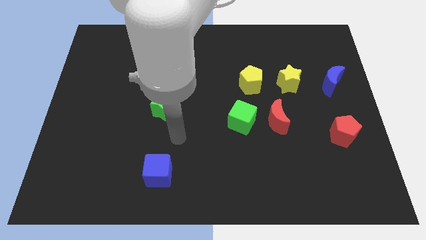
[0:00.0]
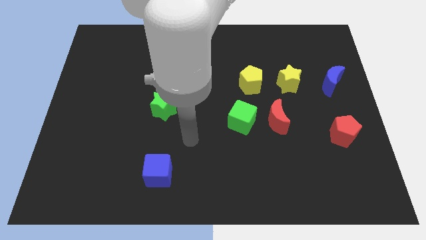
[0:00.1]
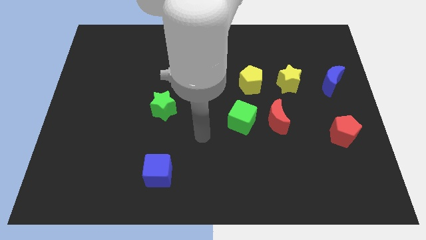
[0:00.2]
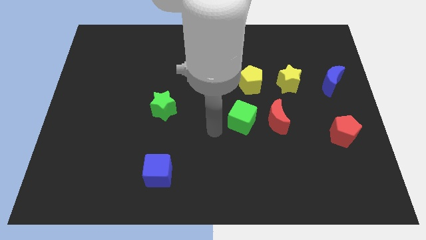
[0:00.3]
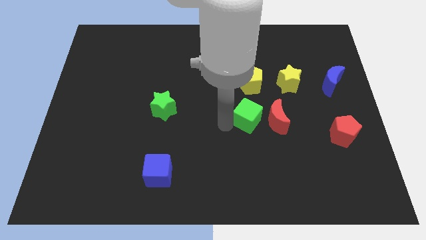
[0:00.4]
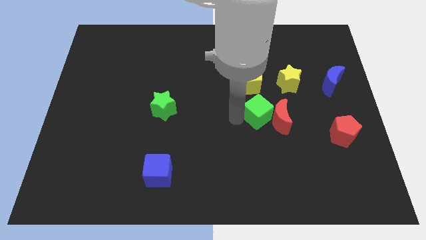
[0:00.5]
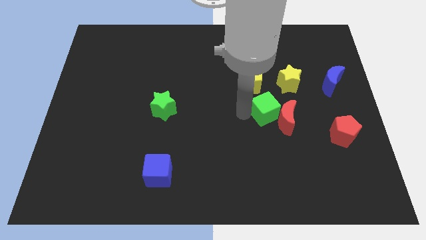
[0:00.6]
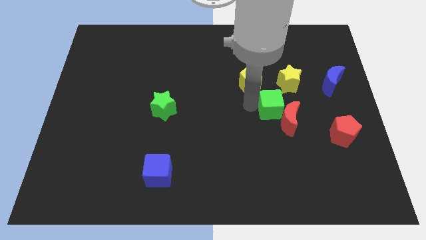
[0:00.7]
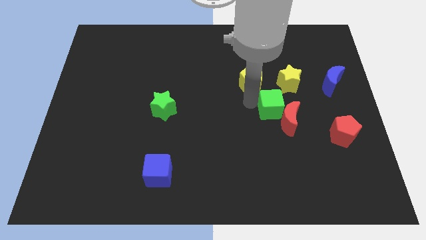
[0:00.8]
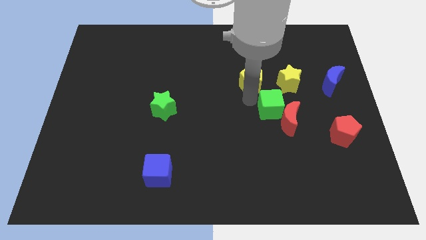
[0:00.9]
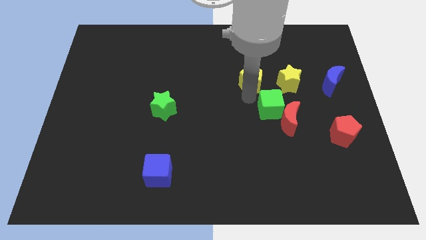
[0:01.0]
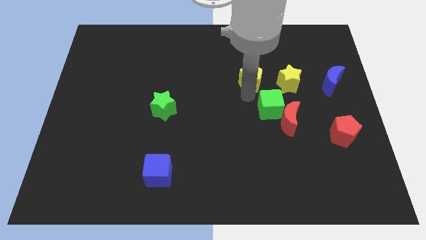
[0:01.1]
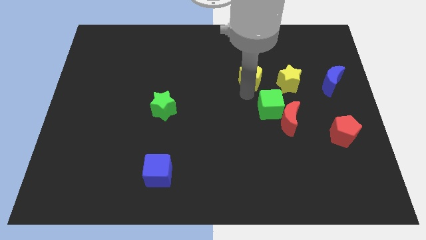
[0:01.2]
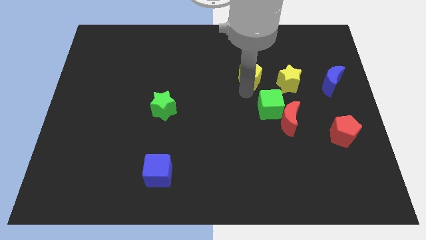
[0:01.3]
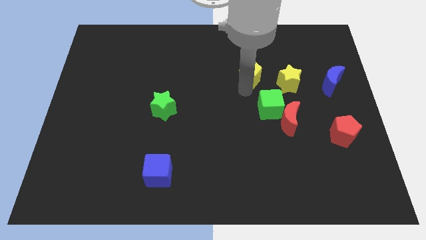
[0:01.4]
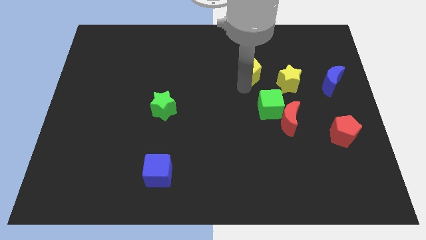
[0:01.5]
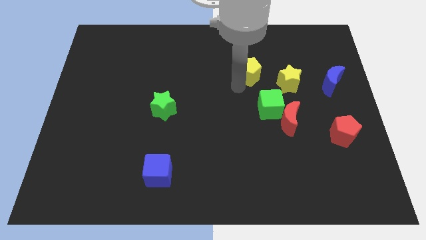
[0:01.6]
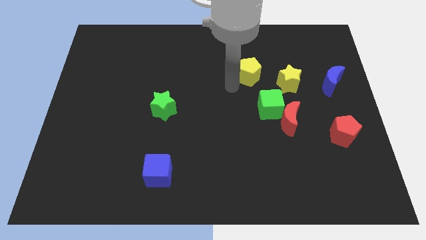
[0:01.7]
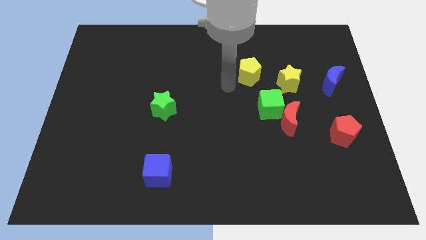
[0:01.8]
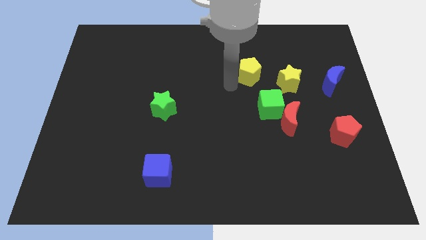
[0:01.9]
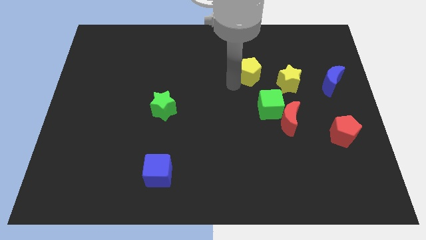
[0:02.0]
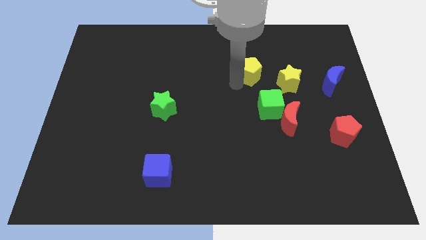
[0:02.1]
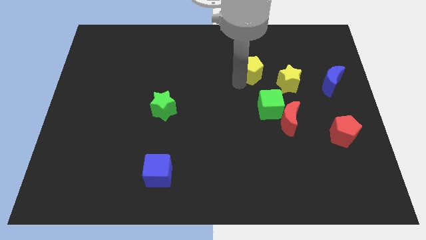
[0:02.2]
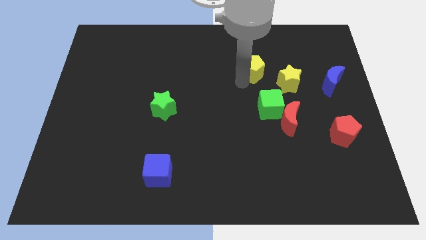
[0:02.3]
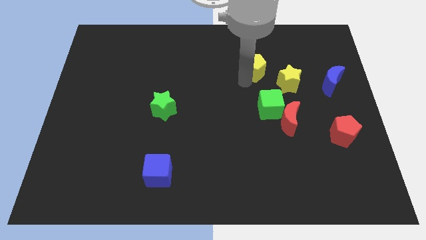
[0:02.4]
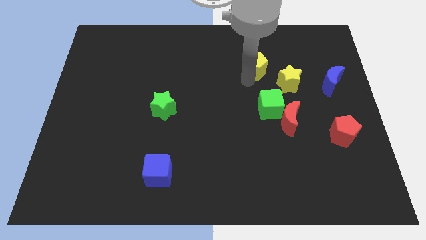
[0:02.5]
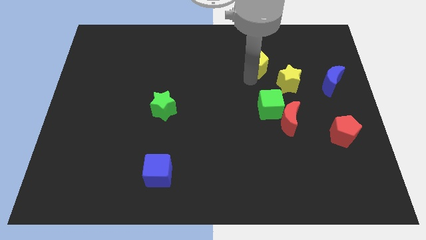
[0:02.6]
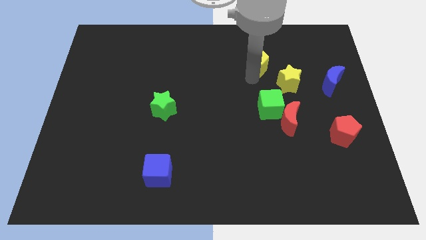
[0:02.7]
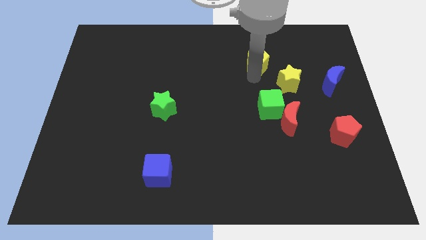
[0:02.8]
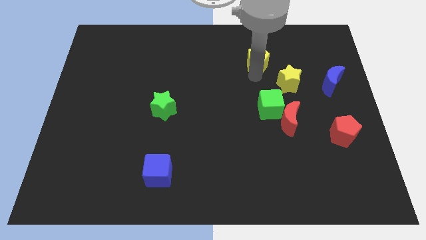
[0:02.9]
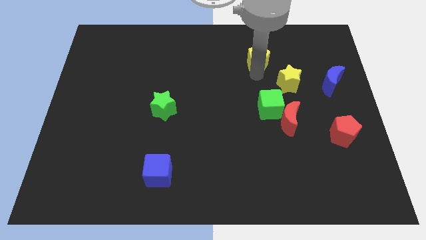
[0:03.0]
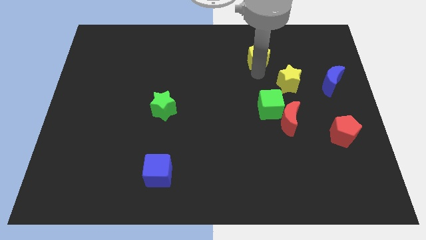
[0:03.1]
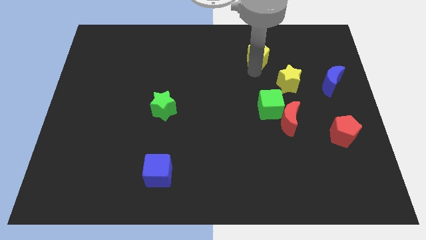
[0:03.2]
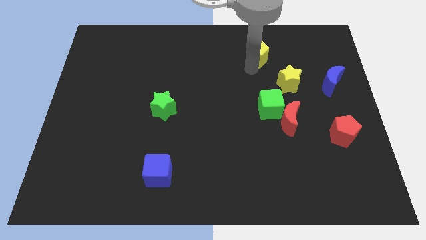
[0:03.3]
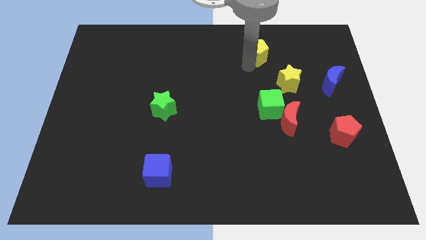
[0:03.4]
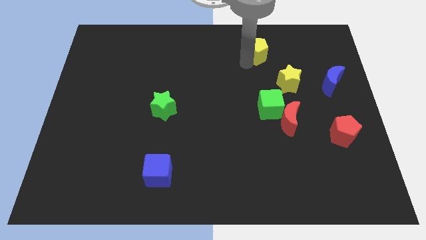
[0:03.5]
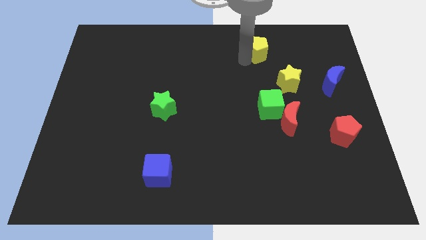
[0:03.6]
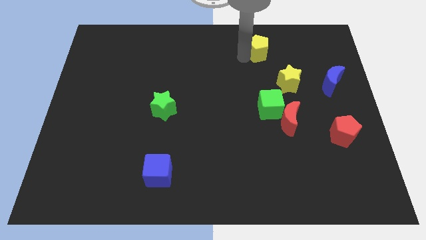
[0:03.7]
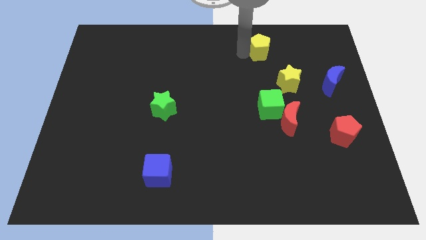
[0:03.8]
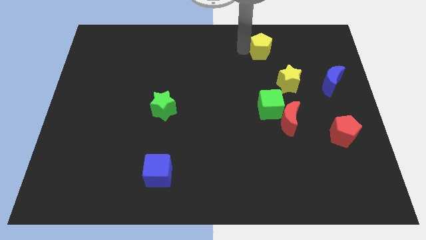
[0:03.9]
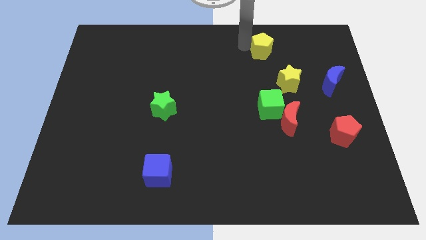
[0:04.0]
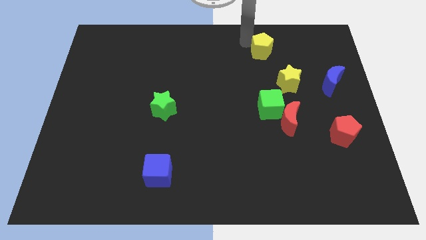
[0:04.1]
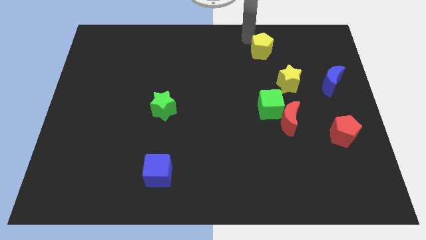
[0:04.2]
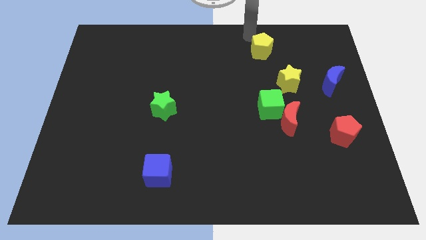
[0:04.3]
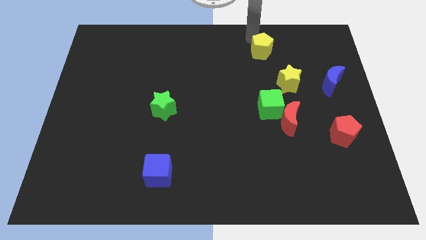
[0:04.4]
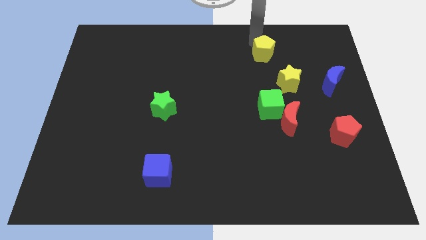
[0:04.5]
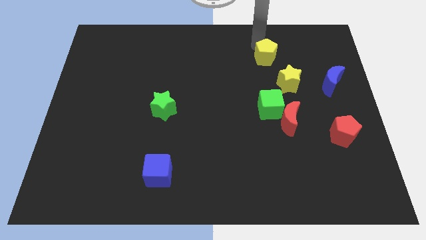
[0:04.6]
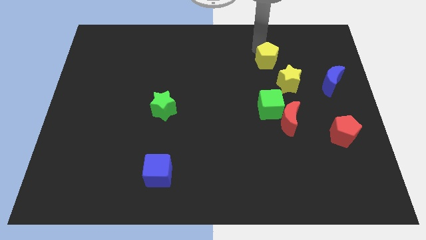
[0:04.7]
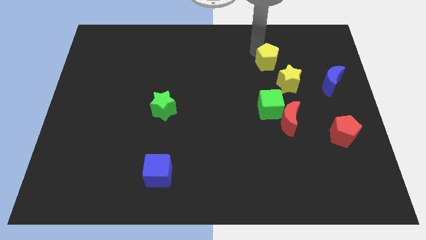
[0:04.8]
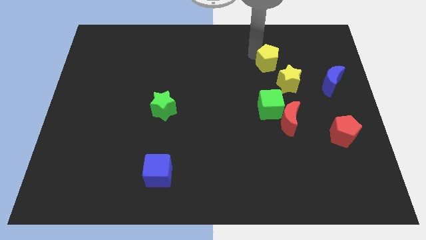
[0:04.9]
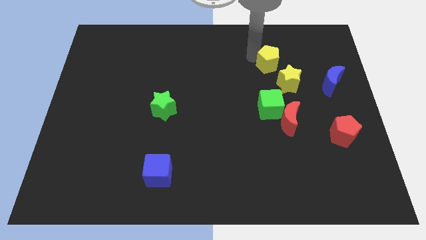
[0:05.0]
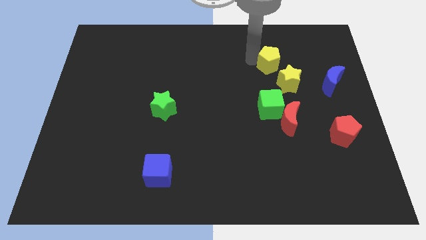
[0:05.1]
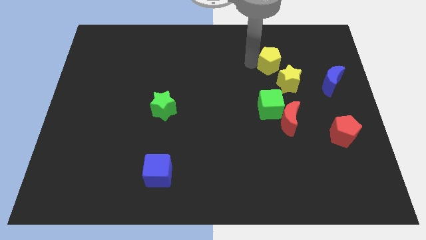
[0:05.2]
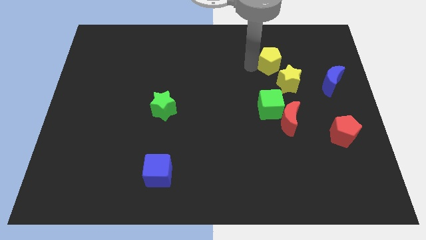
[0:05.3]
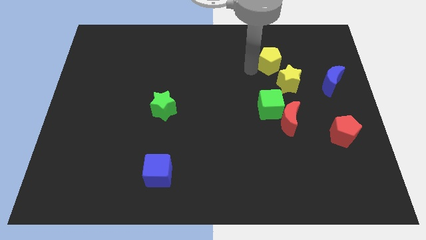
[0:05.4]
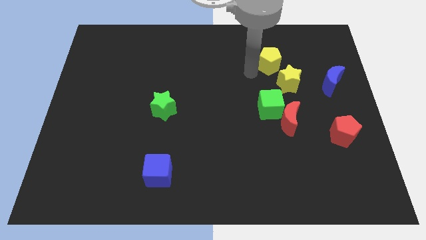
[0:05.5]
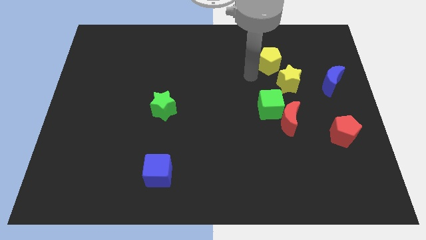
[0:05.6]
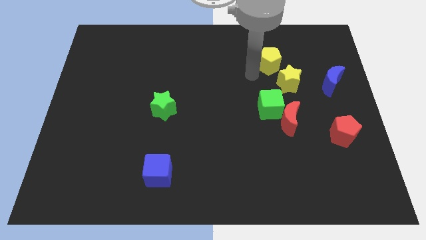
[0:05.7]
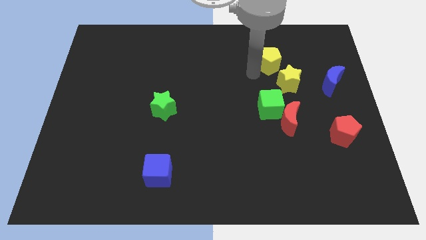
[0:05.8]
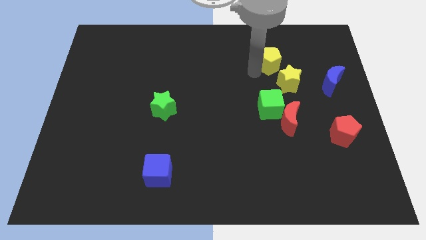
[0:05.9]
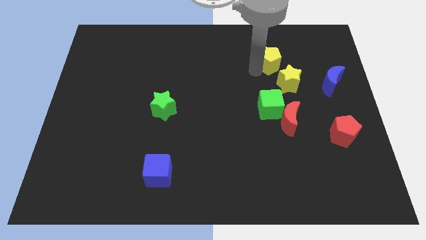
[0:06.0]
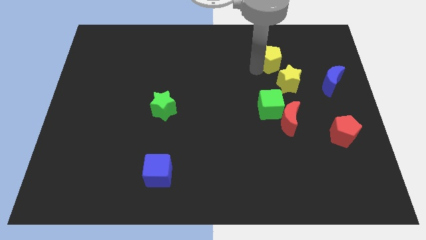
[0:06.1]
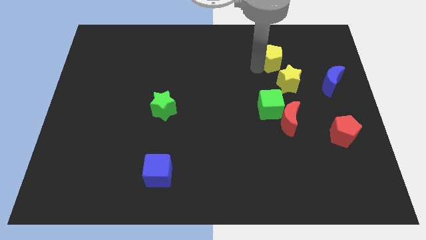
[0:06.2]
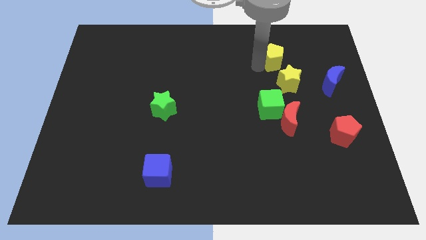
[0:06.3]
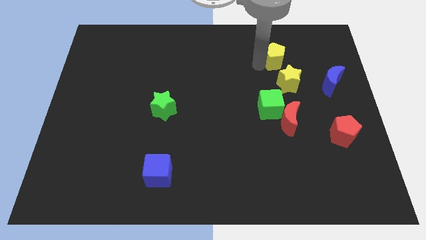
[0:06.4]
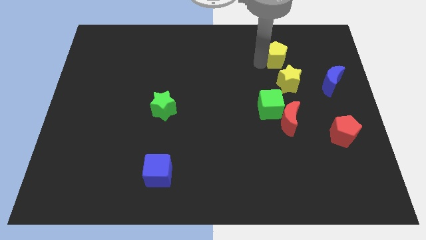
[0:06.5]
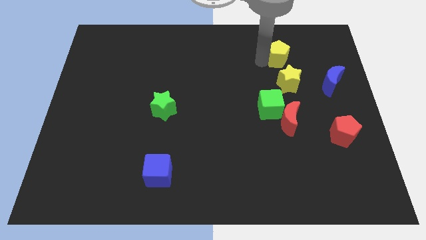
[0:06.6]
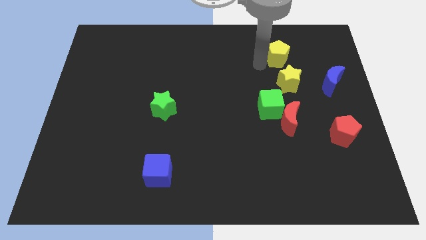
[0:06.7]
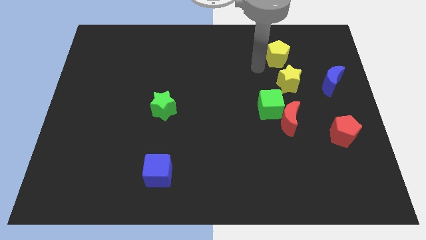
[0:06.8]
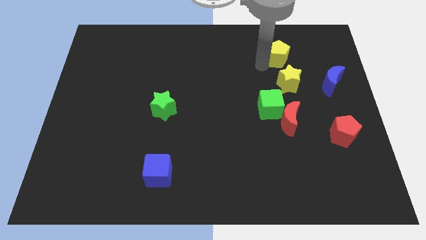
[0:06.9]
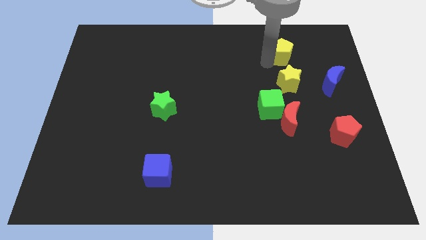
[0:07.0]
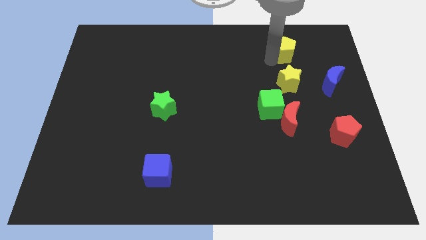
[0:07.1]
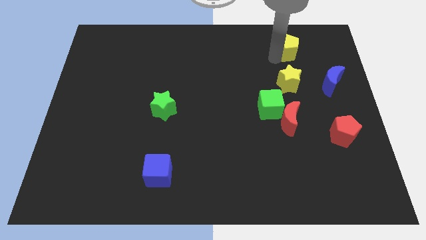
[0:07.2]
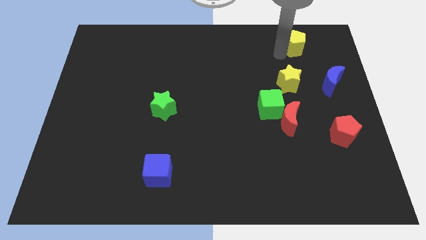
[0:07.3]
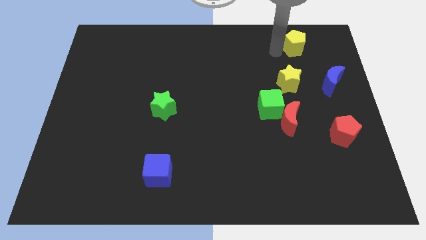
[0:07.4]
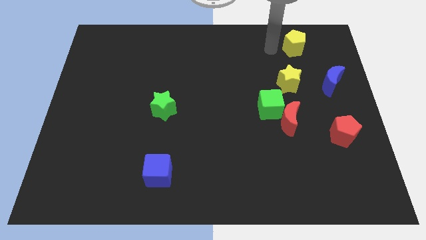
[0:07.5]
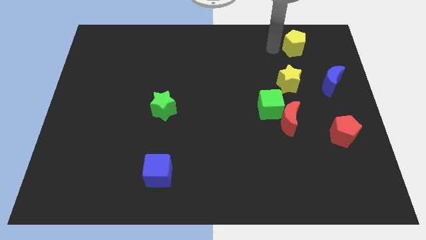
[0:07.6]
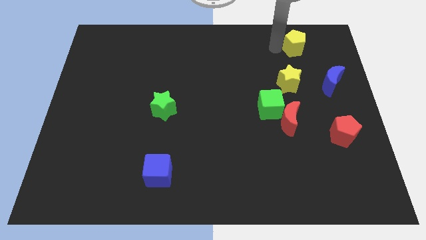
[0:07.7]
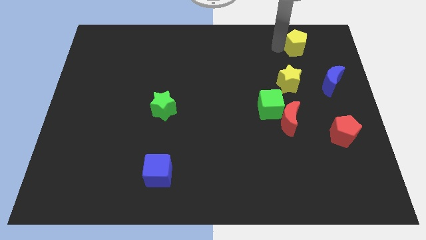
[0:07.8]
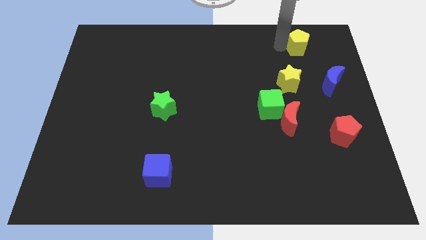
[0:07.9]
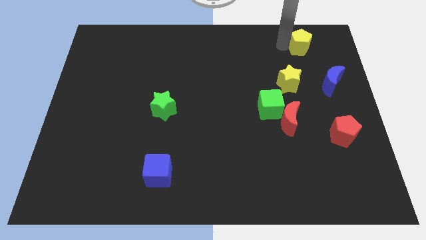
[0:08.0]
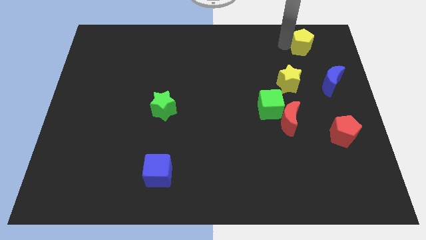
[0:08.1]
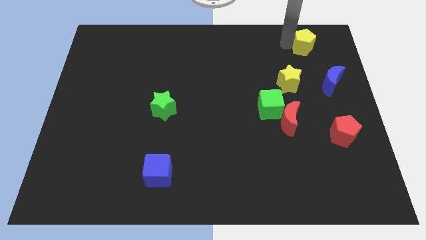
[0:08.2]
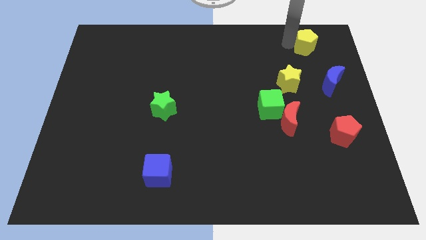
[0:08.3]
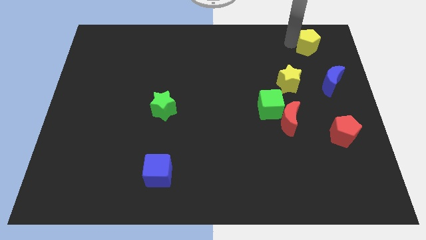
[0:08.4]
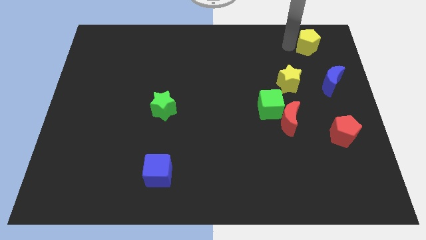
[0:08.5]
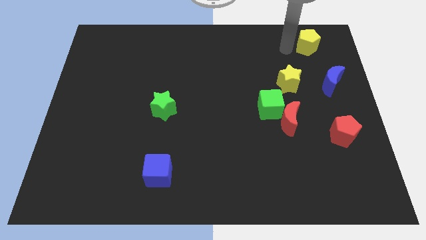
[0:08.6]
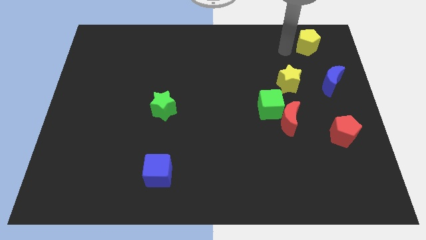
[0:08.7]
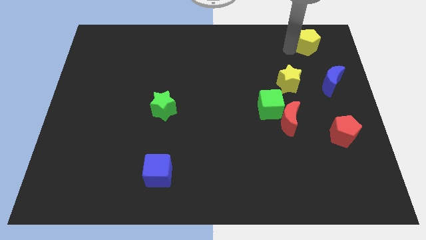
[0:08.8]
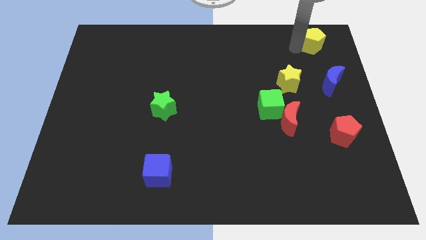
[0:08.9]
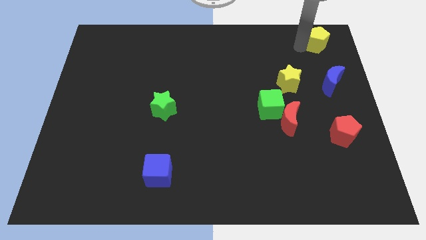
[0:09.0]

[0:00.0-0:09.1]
put the yellow pentagon to the upper right corner

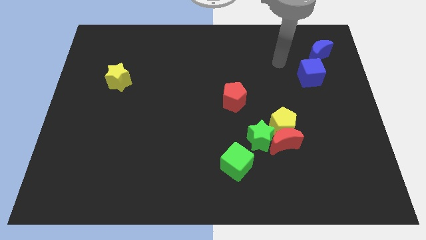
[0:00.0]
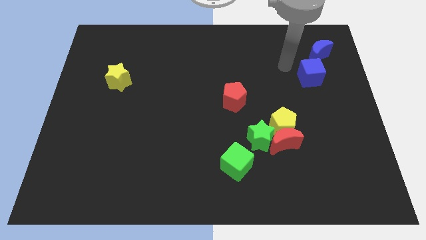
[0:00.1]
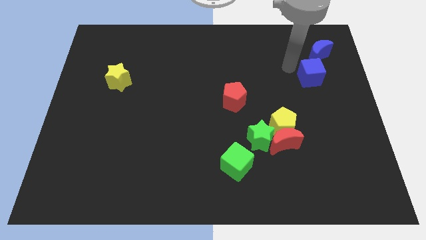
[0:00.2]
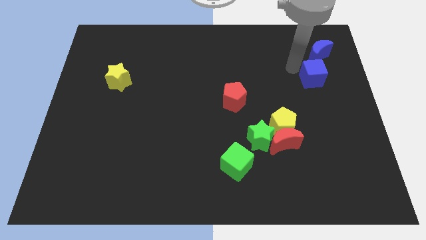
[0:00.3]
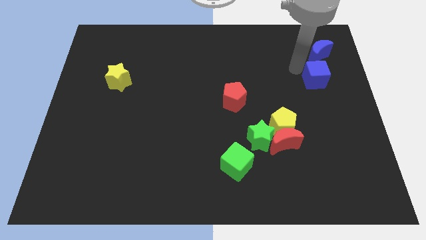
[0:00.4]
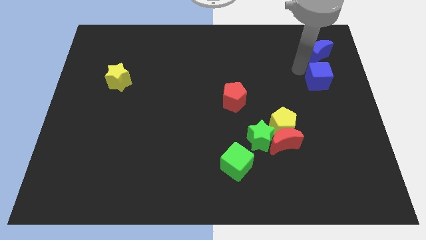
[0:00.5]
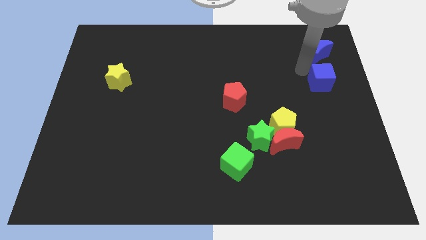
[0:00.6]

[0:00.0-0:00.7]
move the blue cube to the right side
